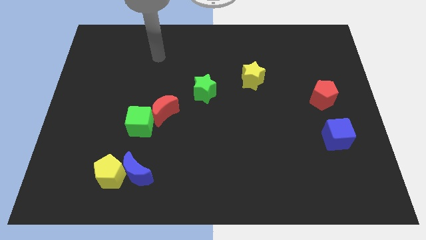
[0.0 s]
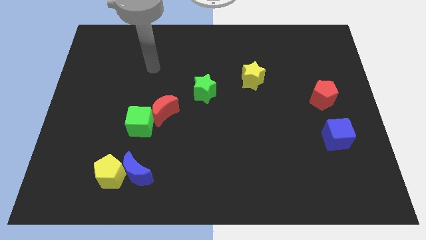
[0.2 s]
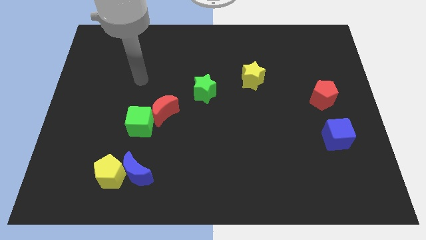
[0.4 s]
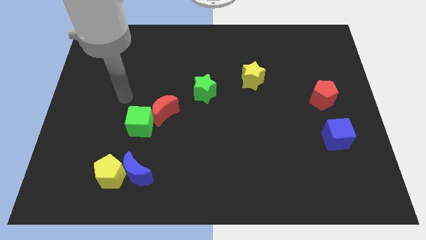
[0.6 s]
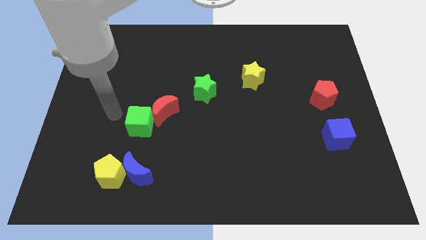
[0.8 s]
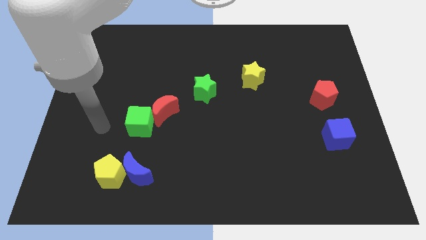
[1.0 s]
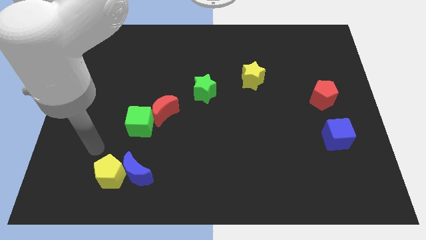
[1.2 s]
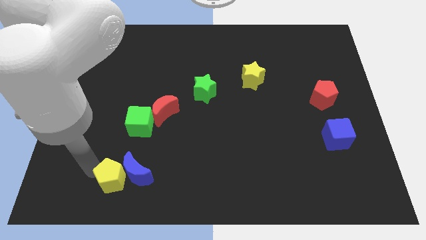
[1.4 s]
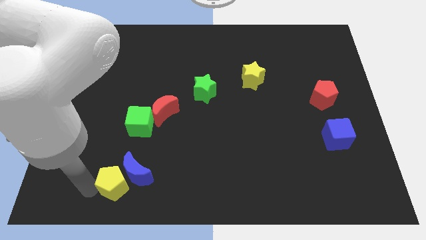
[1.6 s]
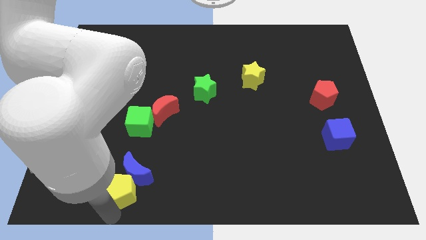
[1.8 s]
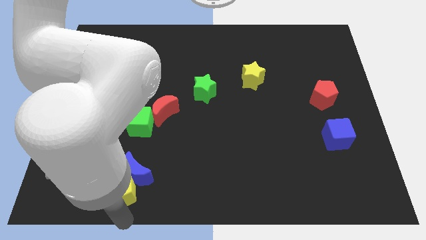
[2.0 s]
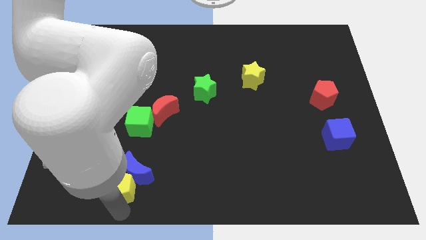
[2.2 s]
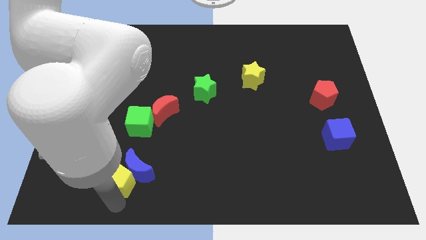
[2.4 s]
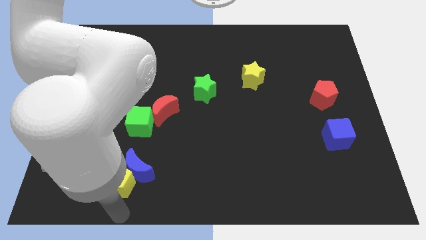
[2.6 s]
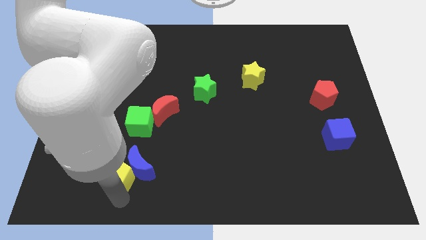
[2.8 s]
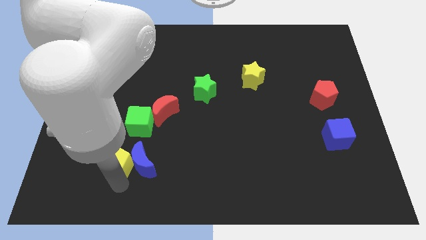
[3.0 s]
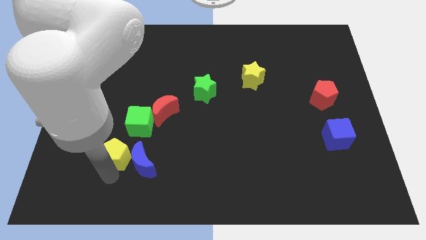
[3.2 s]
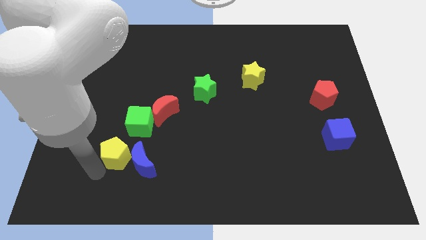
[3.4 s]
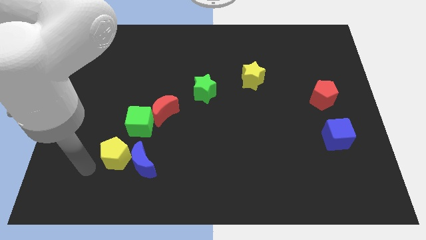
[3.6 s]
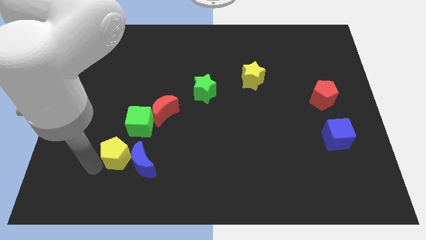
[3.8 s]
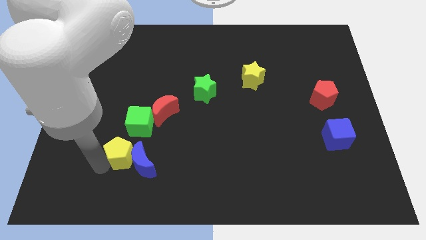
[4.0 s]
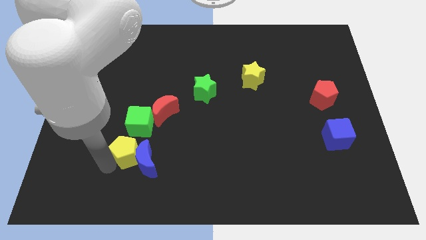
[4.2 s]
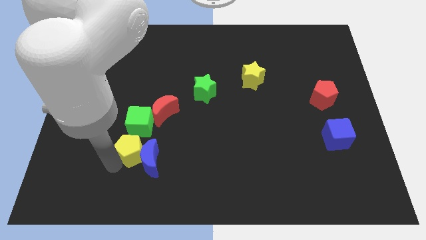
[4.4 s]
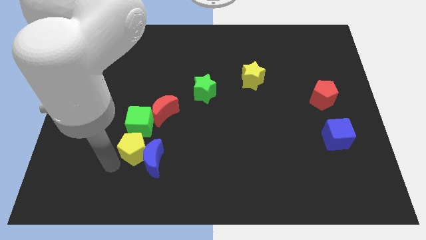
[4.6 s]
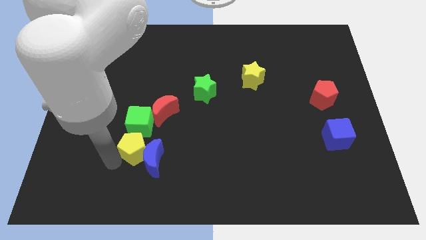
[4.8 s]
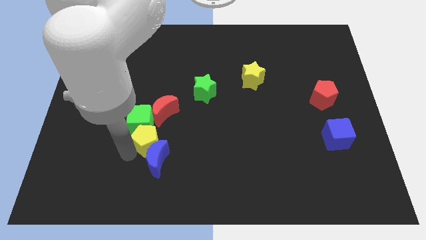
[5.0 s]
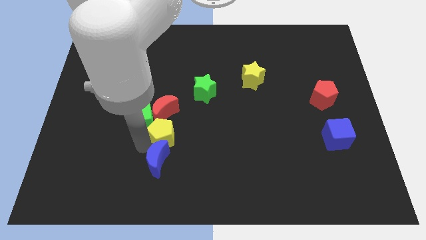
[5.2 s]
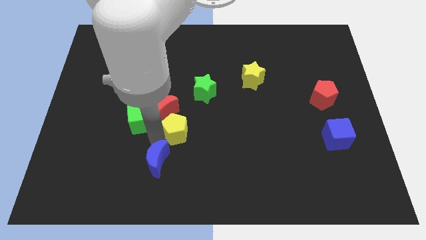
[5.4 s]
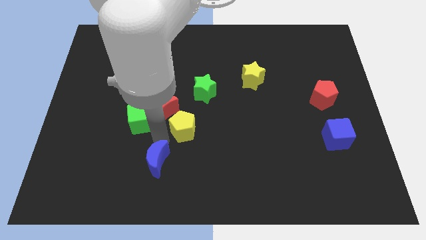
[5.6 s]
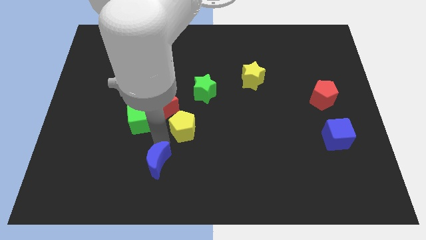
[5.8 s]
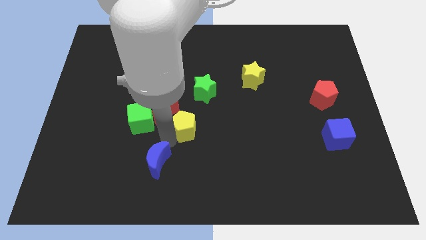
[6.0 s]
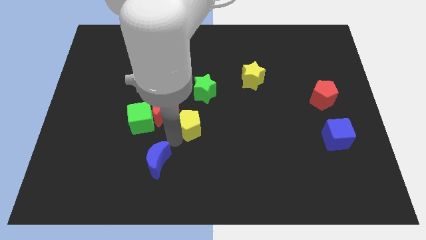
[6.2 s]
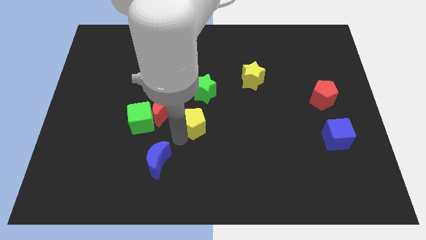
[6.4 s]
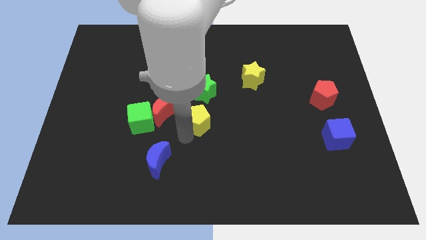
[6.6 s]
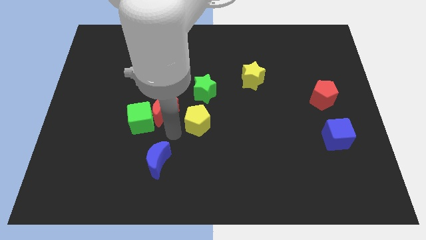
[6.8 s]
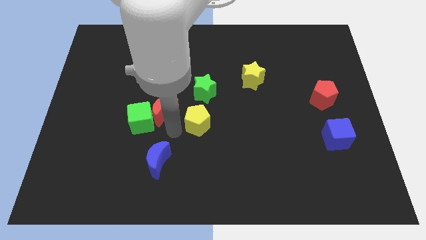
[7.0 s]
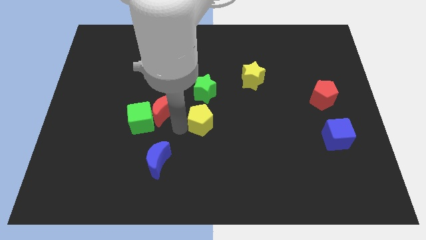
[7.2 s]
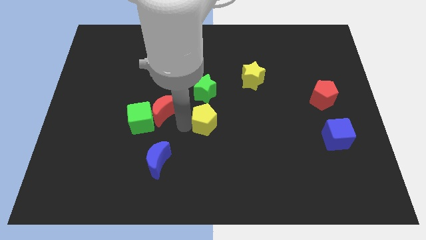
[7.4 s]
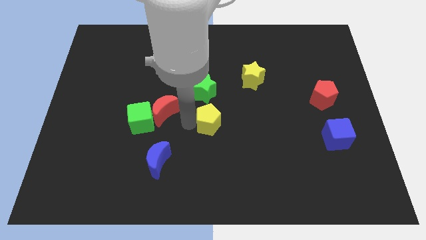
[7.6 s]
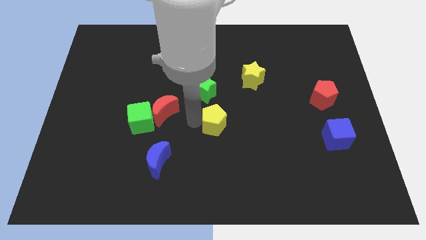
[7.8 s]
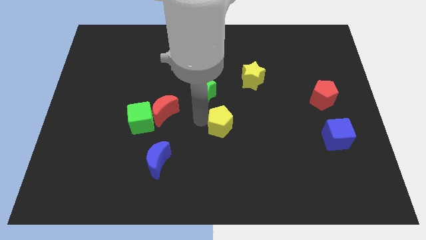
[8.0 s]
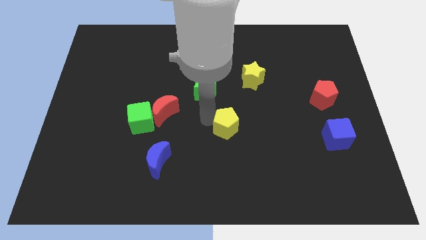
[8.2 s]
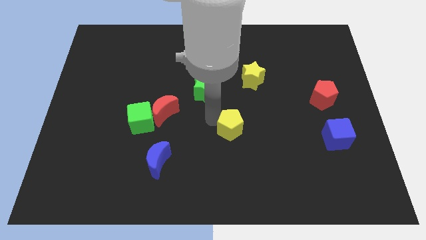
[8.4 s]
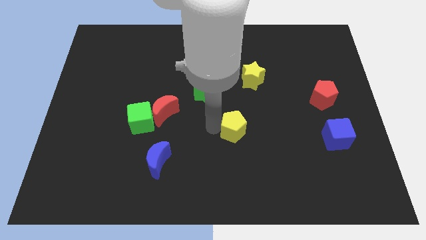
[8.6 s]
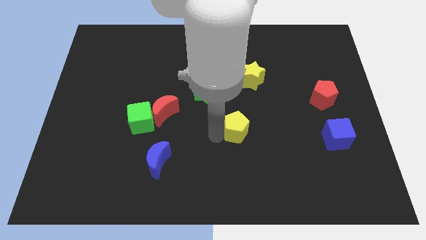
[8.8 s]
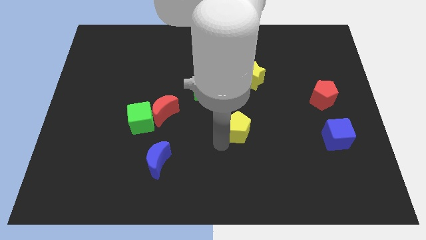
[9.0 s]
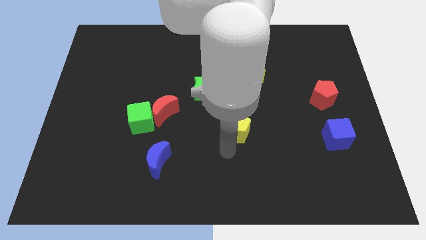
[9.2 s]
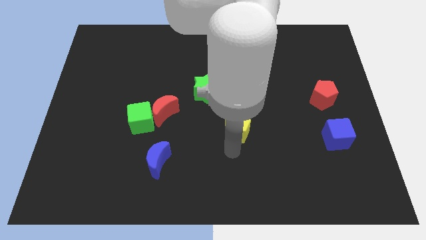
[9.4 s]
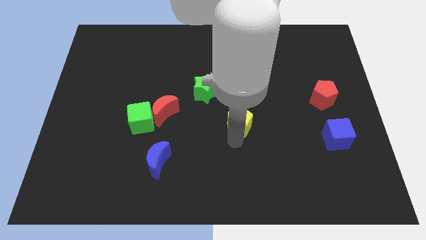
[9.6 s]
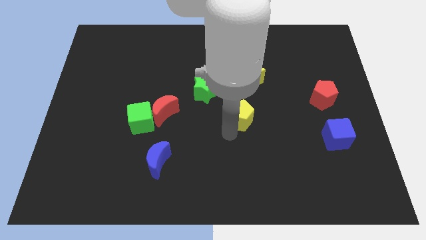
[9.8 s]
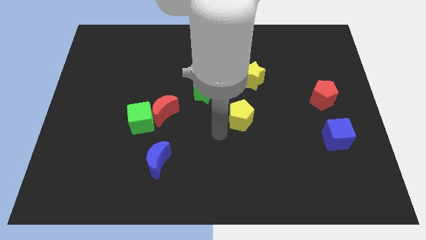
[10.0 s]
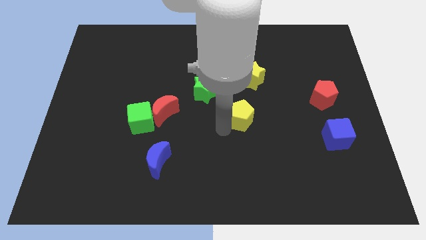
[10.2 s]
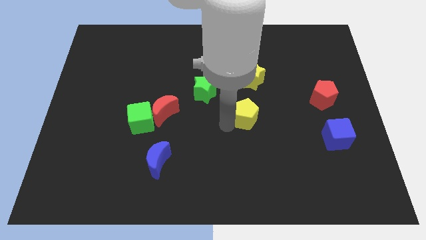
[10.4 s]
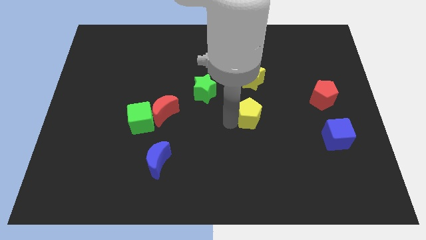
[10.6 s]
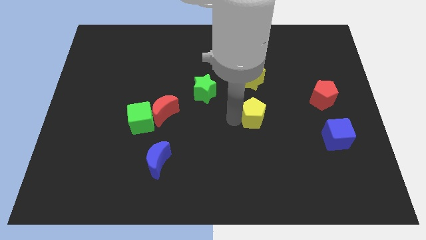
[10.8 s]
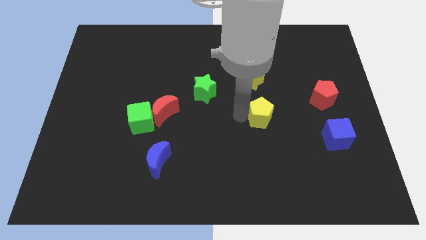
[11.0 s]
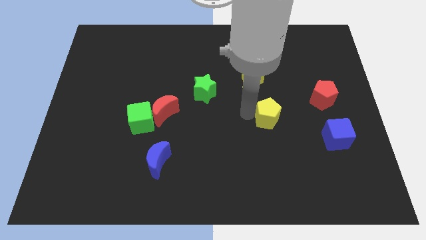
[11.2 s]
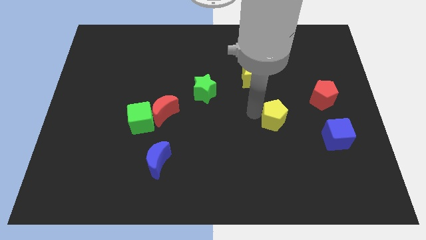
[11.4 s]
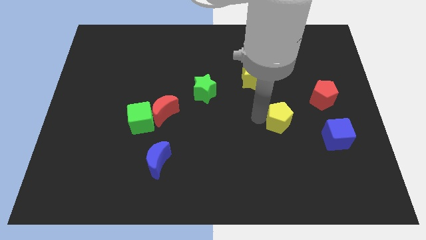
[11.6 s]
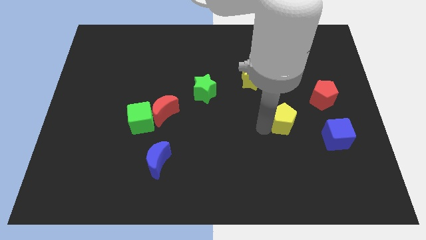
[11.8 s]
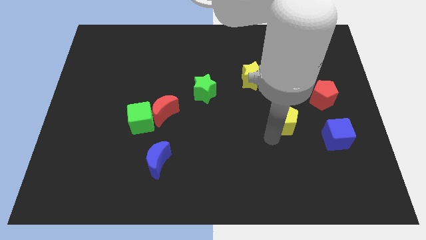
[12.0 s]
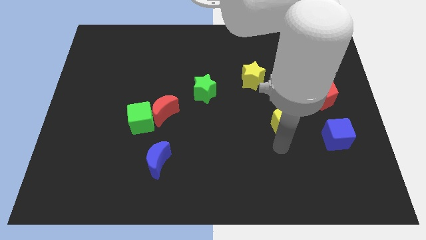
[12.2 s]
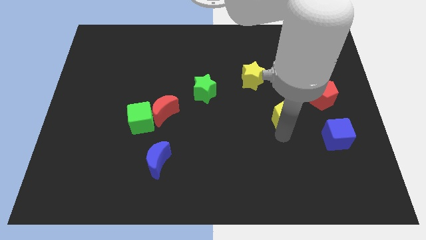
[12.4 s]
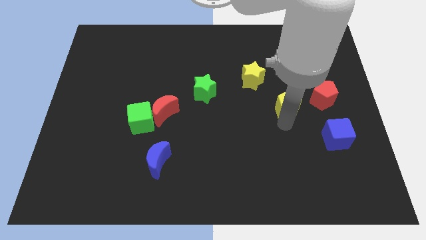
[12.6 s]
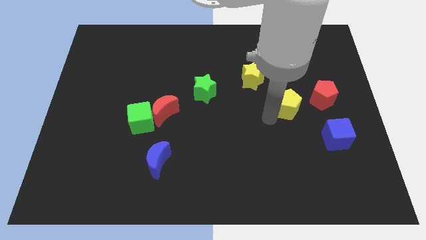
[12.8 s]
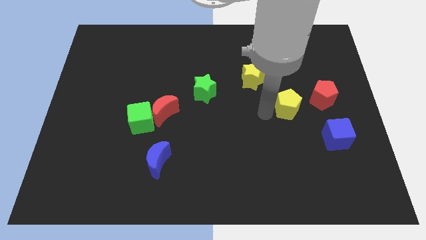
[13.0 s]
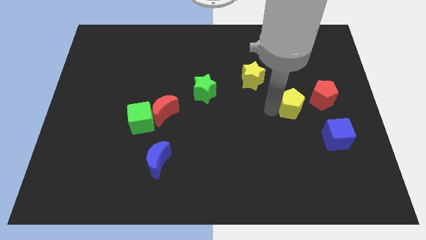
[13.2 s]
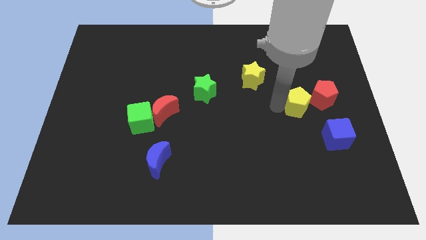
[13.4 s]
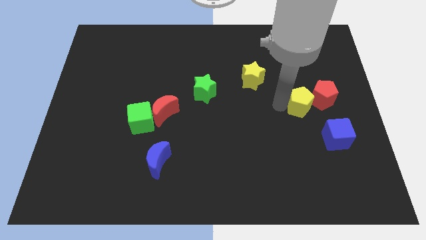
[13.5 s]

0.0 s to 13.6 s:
push the yellow pentagon next to the red pentagon
